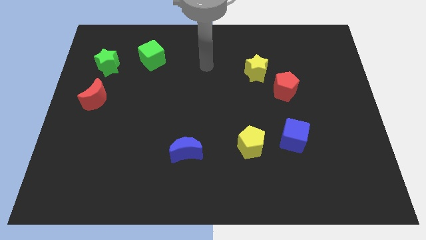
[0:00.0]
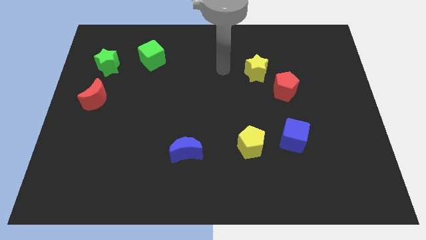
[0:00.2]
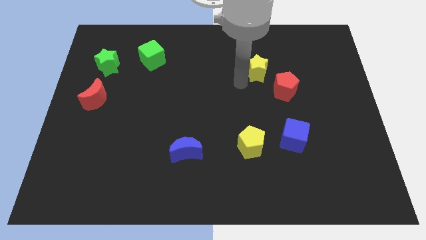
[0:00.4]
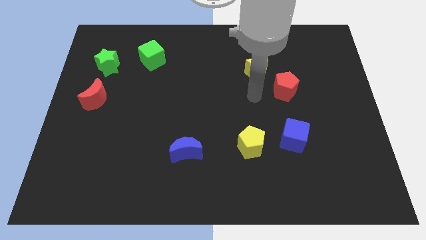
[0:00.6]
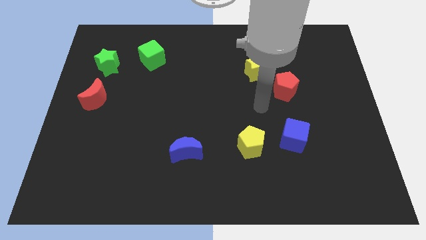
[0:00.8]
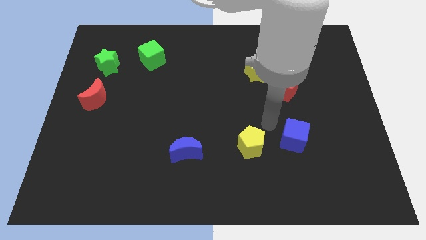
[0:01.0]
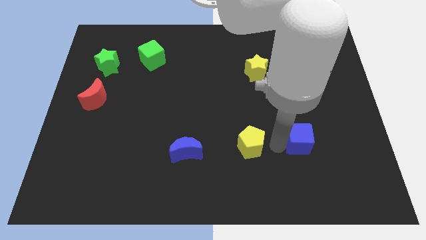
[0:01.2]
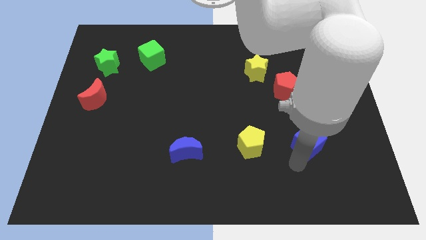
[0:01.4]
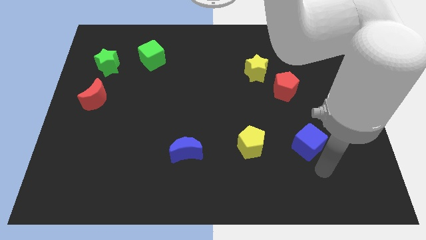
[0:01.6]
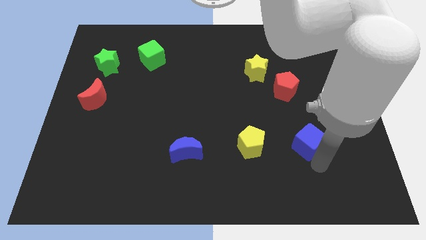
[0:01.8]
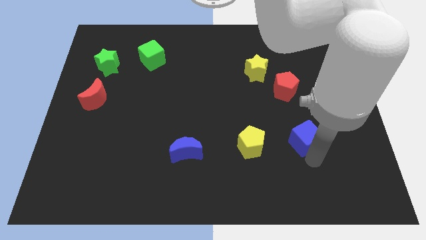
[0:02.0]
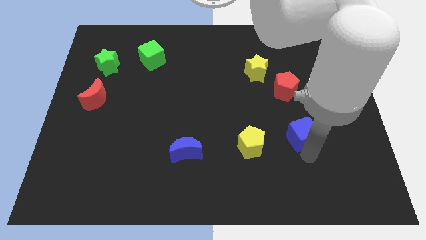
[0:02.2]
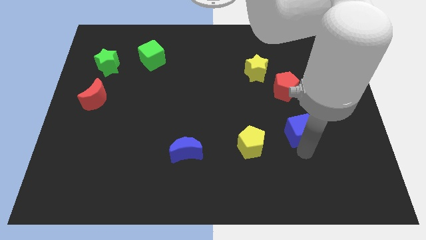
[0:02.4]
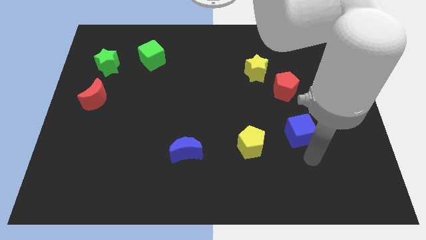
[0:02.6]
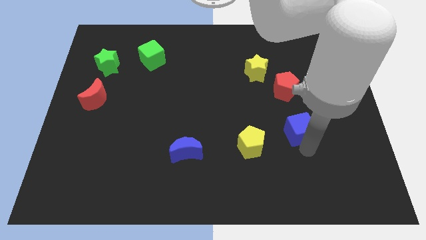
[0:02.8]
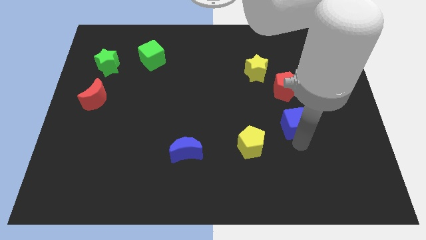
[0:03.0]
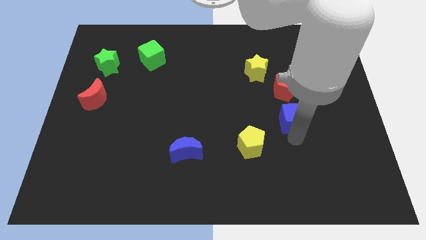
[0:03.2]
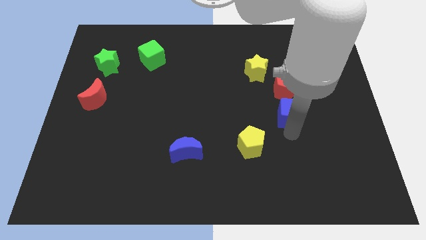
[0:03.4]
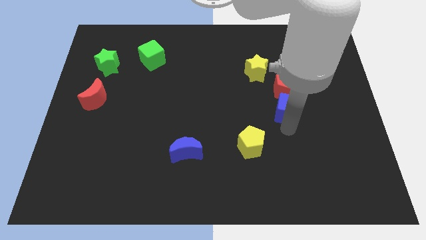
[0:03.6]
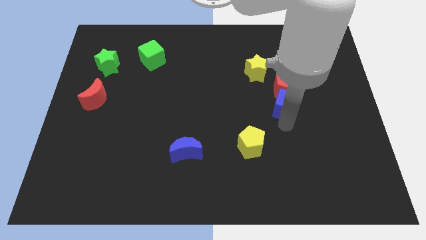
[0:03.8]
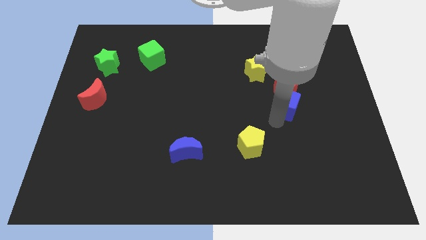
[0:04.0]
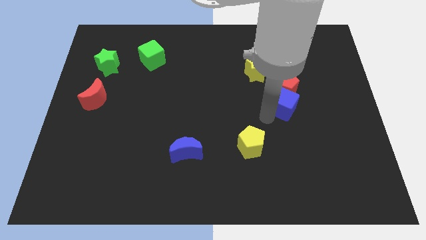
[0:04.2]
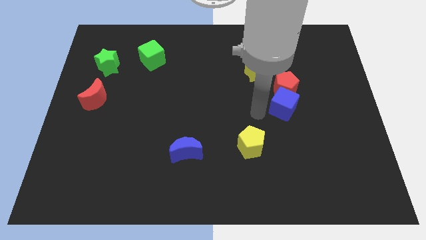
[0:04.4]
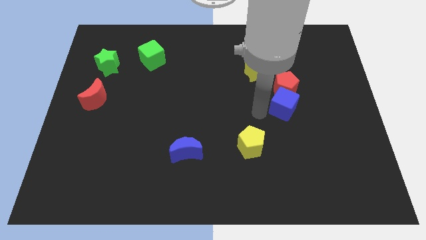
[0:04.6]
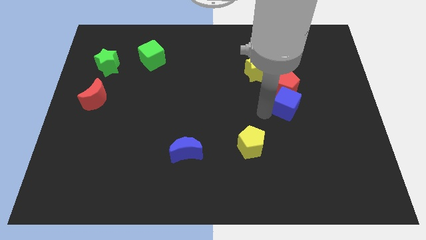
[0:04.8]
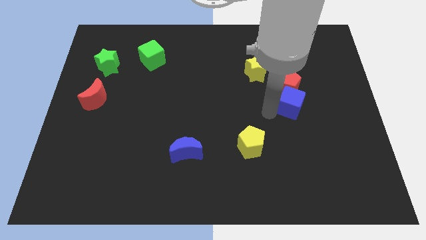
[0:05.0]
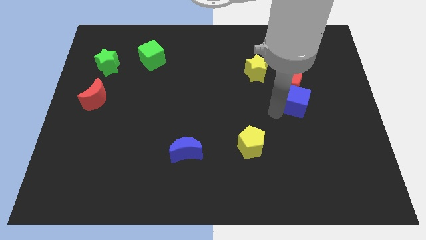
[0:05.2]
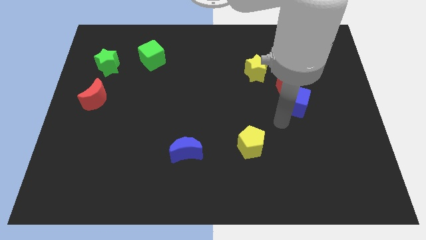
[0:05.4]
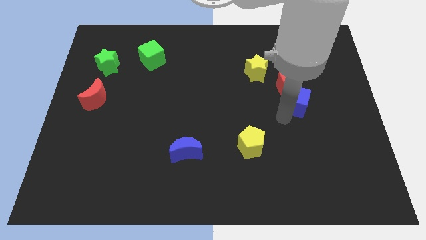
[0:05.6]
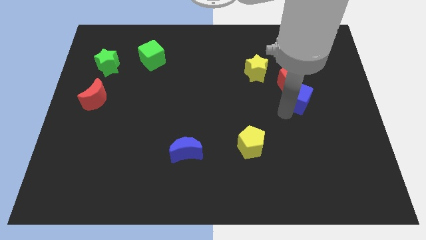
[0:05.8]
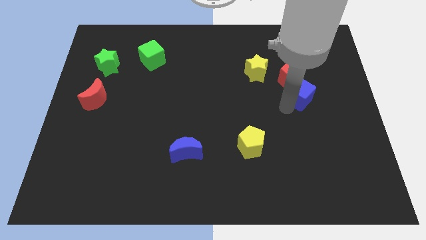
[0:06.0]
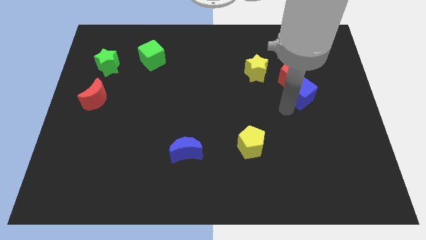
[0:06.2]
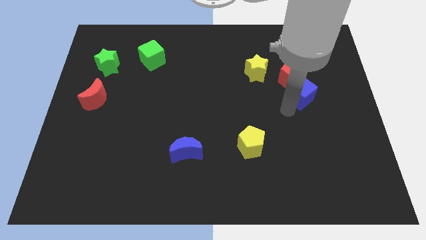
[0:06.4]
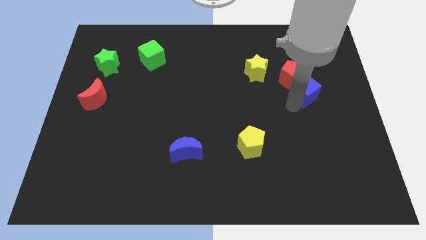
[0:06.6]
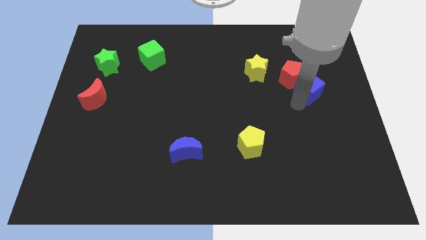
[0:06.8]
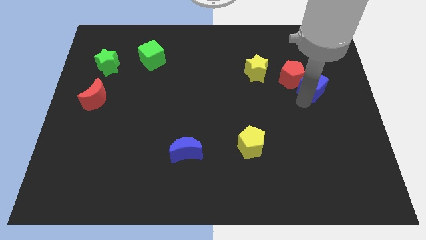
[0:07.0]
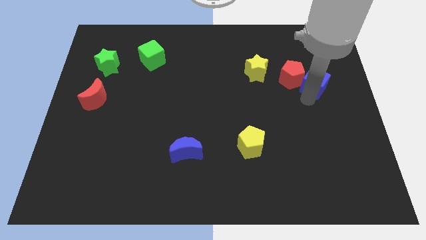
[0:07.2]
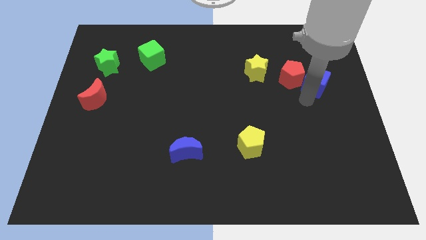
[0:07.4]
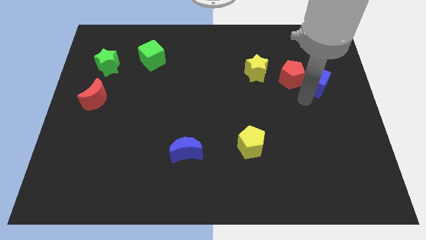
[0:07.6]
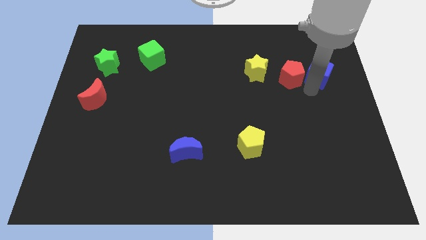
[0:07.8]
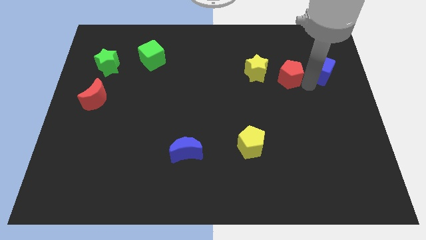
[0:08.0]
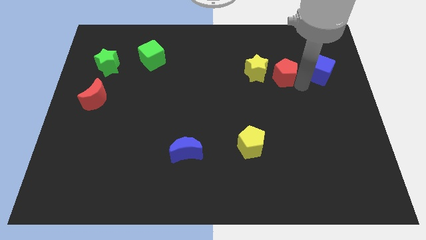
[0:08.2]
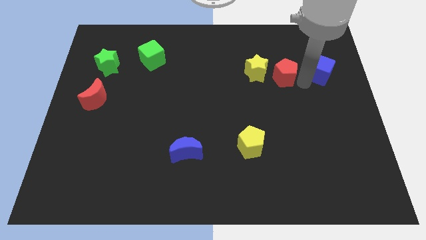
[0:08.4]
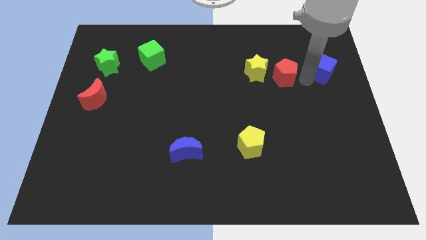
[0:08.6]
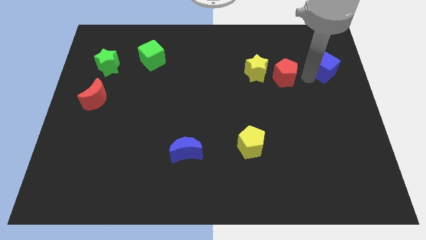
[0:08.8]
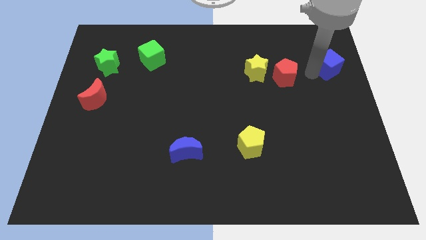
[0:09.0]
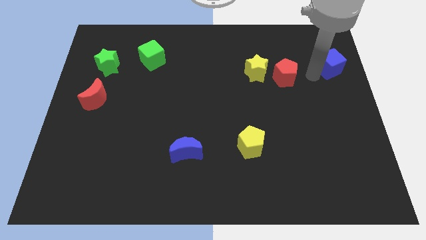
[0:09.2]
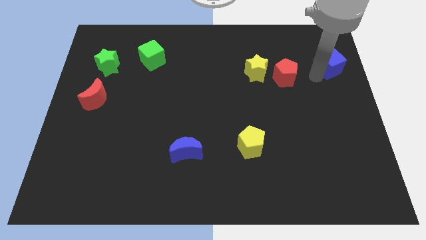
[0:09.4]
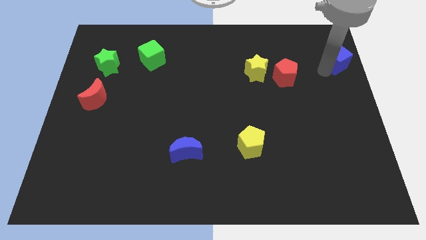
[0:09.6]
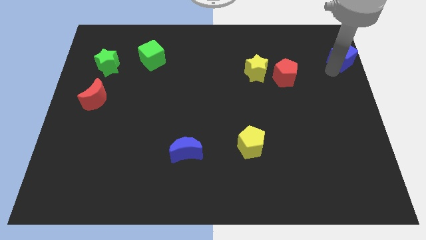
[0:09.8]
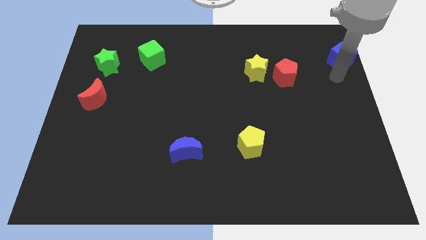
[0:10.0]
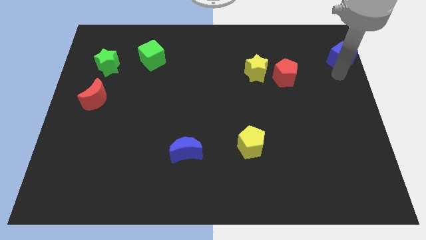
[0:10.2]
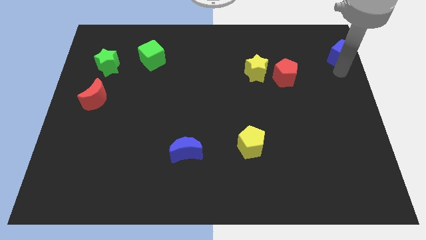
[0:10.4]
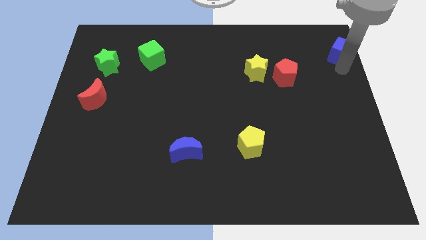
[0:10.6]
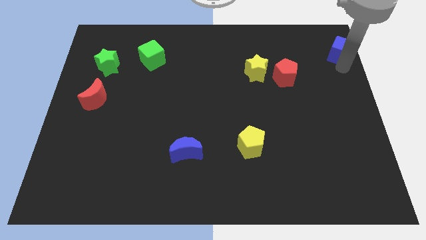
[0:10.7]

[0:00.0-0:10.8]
move the blue cube to the top right
